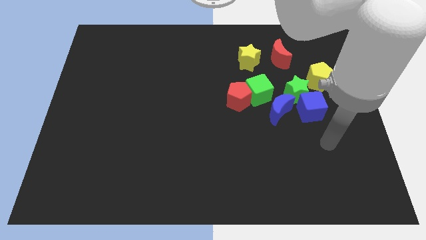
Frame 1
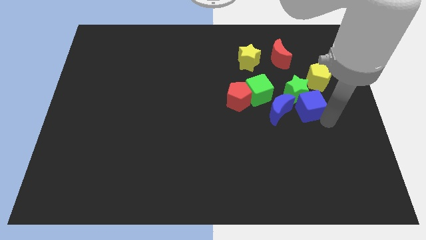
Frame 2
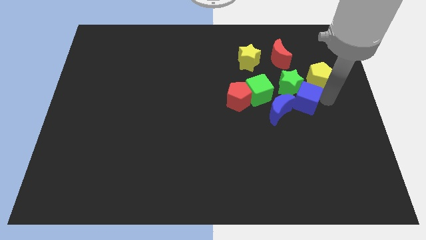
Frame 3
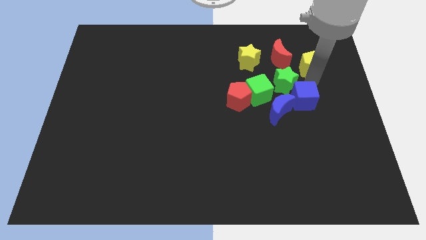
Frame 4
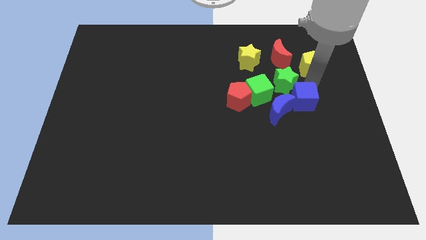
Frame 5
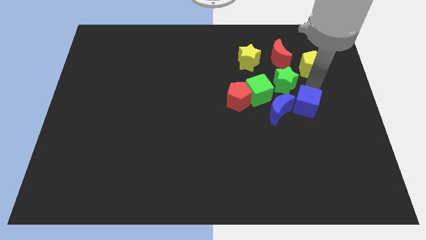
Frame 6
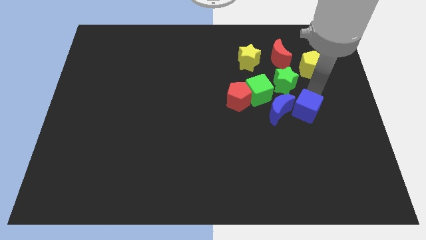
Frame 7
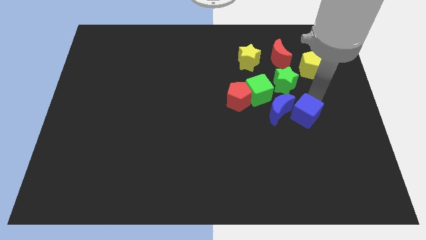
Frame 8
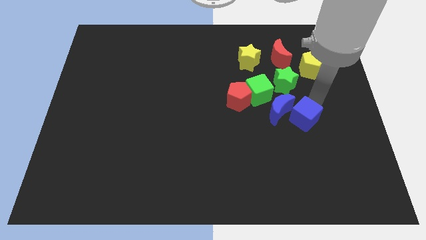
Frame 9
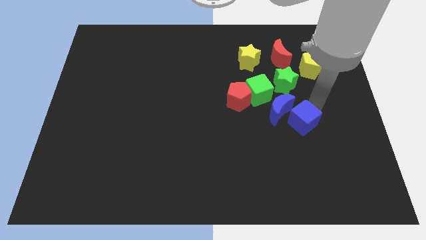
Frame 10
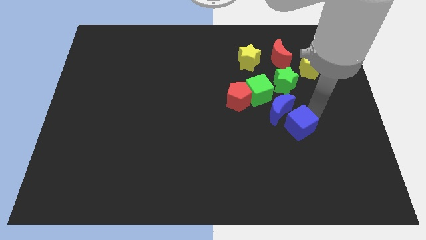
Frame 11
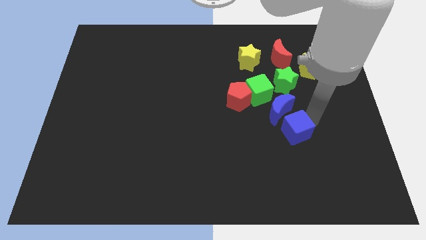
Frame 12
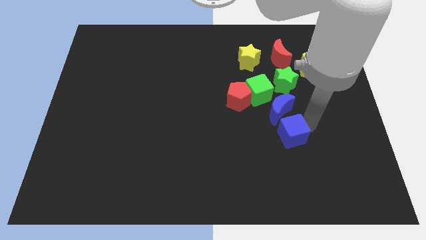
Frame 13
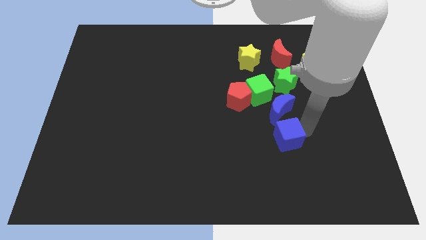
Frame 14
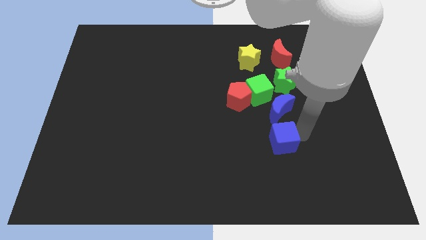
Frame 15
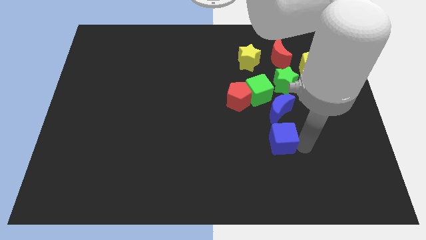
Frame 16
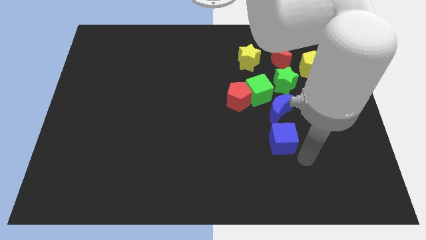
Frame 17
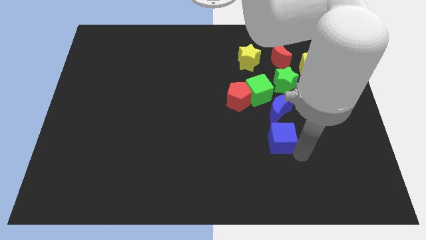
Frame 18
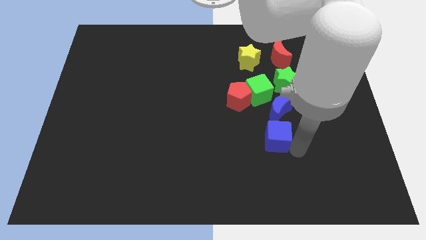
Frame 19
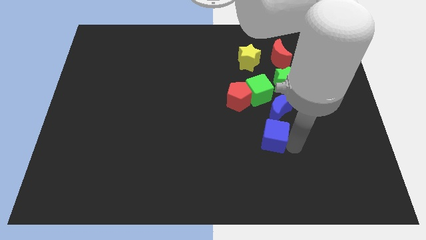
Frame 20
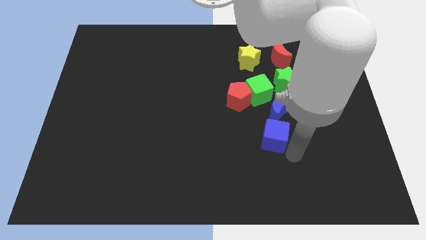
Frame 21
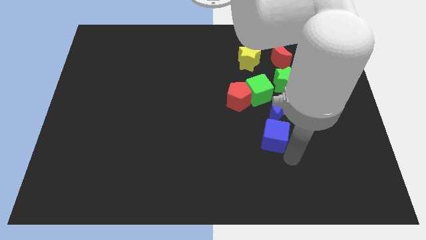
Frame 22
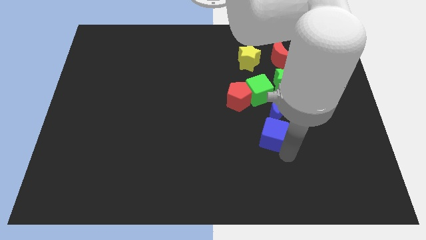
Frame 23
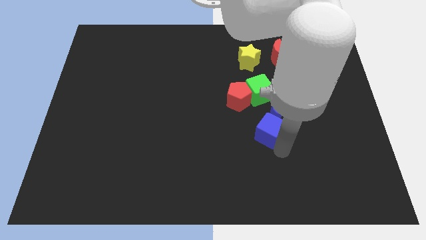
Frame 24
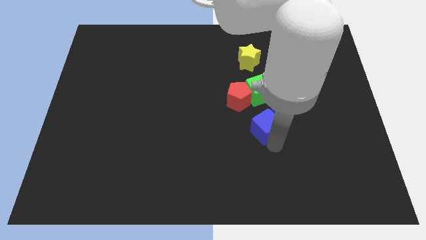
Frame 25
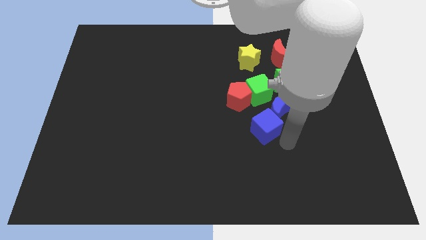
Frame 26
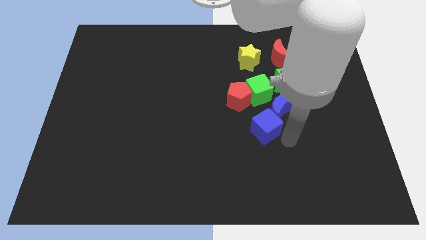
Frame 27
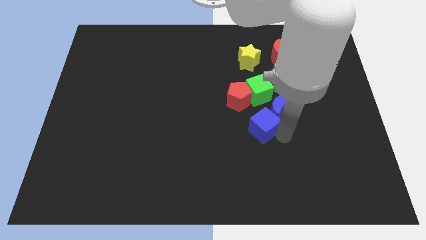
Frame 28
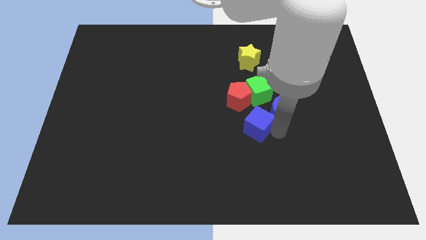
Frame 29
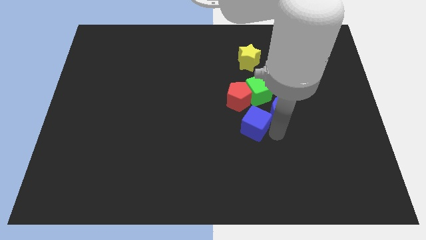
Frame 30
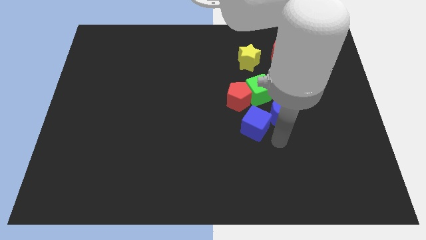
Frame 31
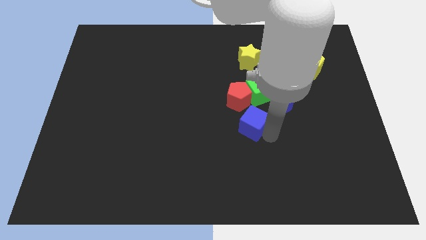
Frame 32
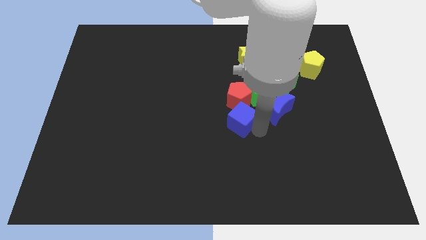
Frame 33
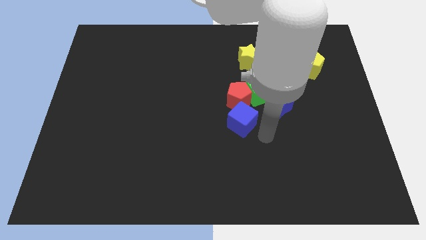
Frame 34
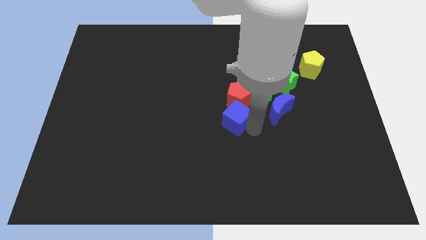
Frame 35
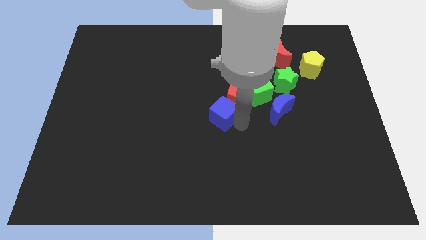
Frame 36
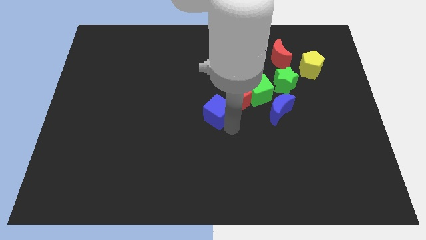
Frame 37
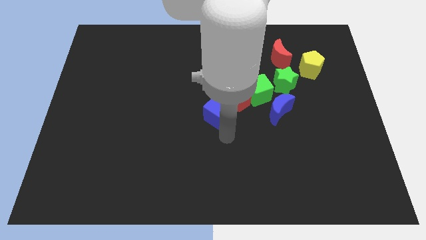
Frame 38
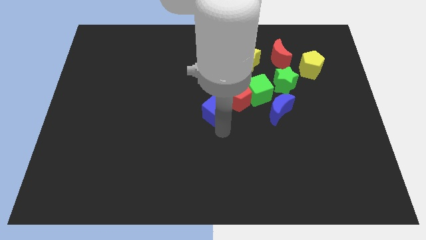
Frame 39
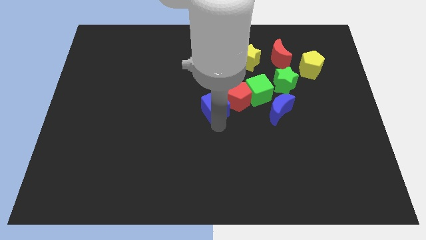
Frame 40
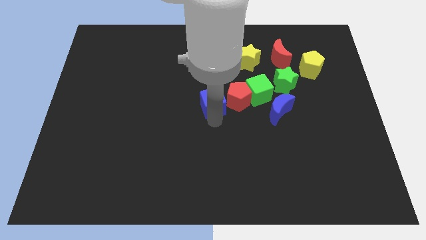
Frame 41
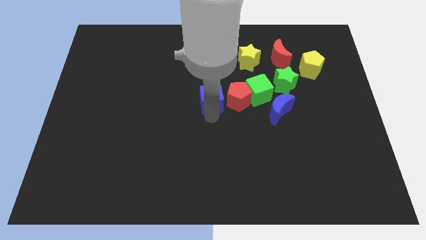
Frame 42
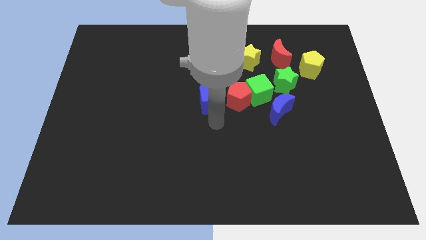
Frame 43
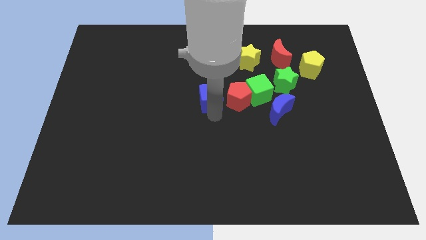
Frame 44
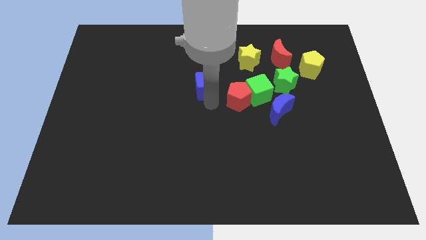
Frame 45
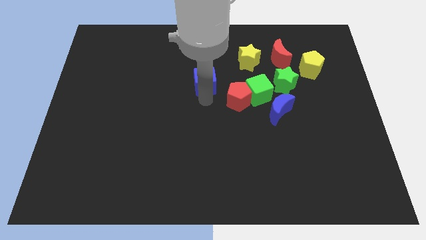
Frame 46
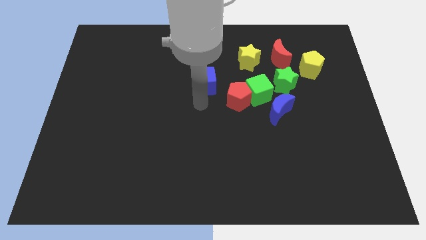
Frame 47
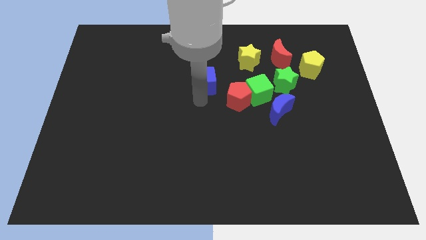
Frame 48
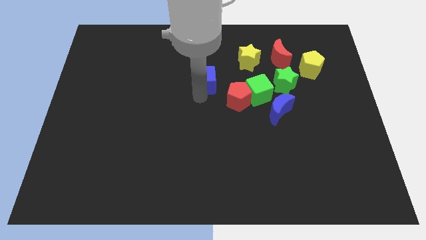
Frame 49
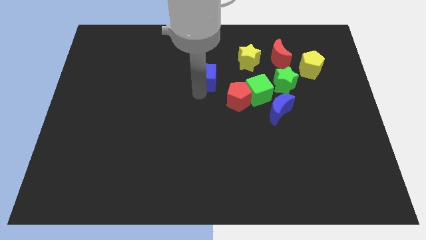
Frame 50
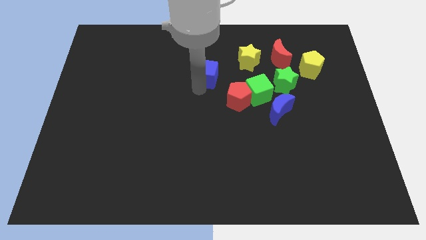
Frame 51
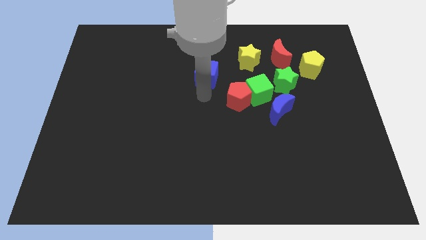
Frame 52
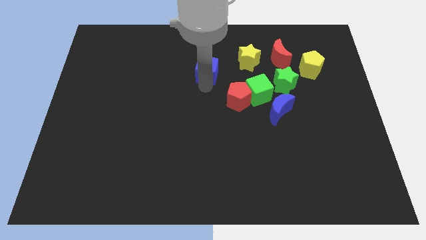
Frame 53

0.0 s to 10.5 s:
put the blue cube just left of the yellow star

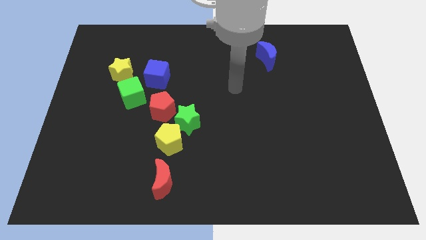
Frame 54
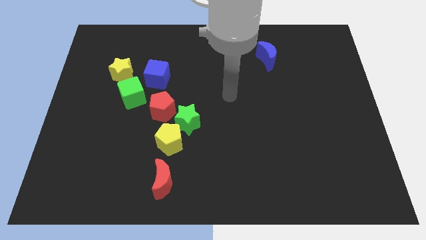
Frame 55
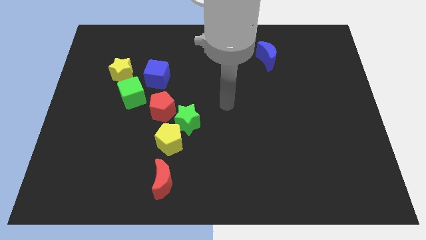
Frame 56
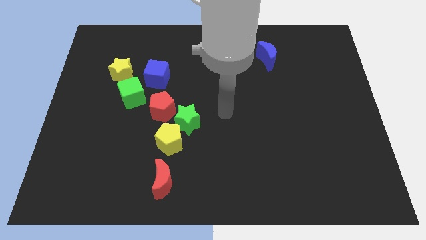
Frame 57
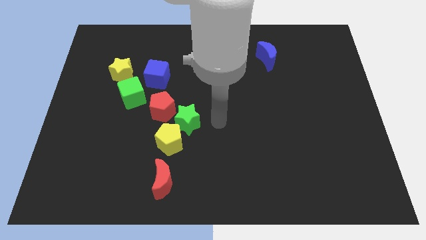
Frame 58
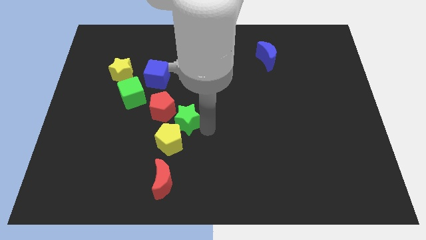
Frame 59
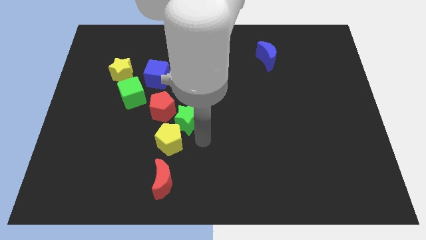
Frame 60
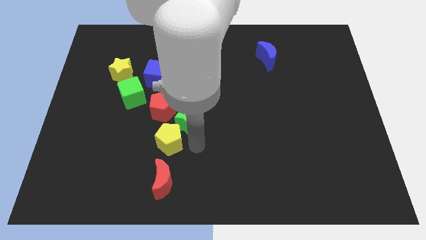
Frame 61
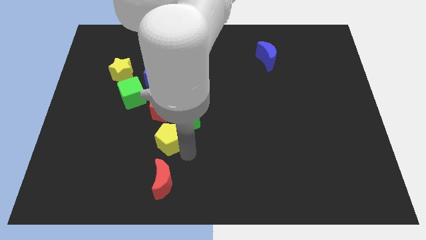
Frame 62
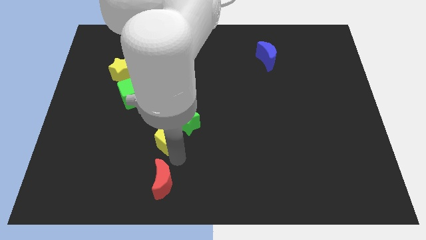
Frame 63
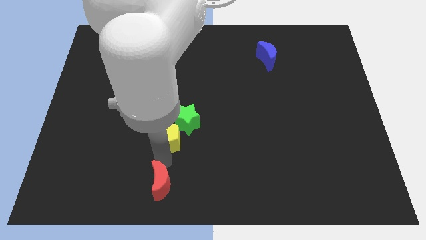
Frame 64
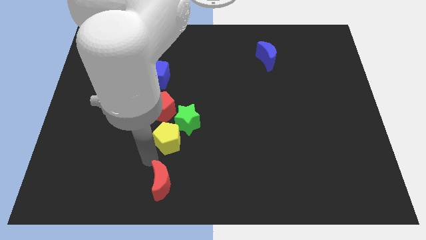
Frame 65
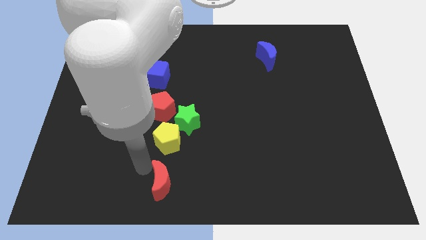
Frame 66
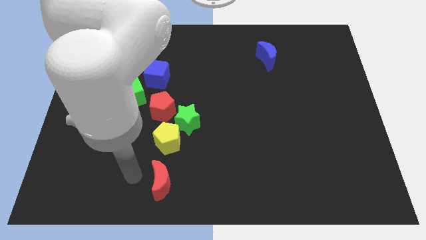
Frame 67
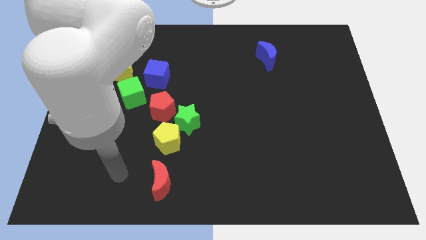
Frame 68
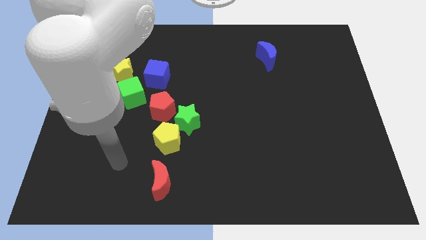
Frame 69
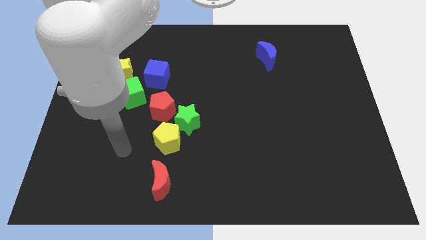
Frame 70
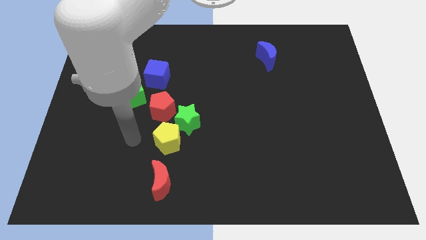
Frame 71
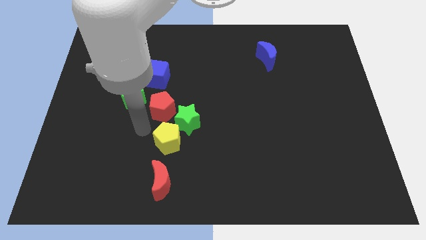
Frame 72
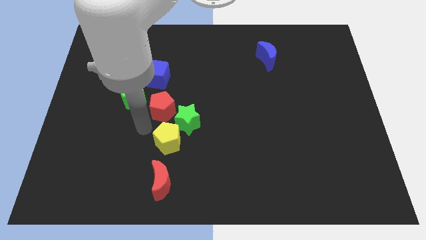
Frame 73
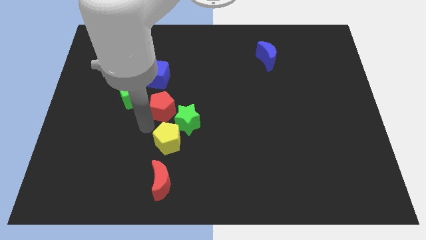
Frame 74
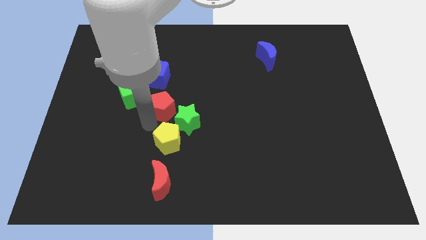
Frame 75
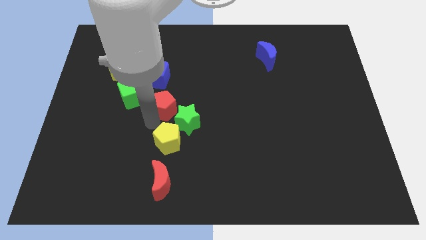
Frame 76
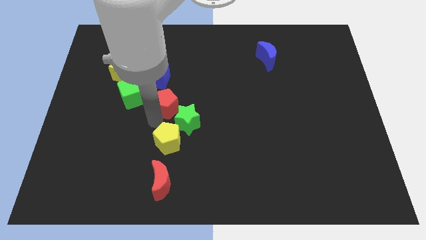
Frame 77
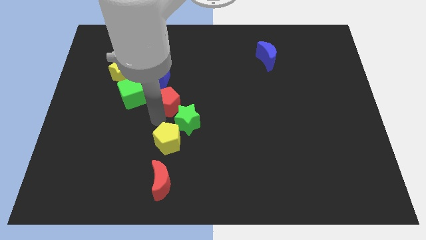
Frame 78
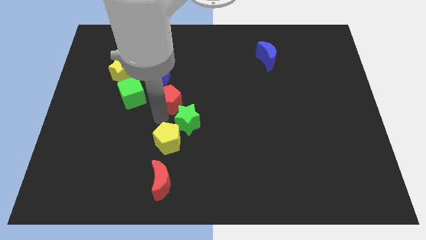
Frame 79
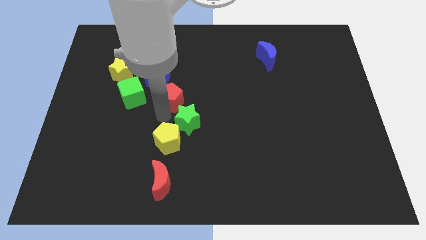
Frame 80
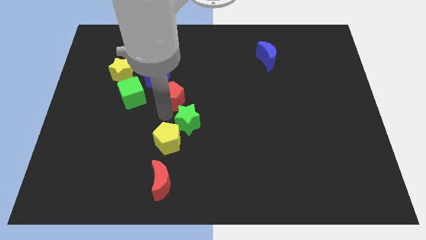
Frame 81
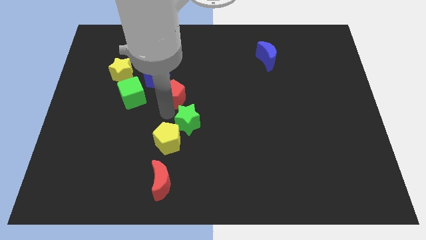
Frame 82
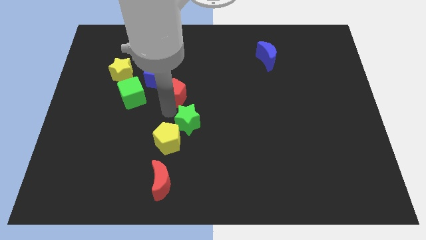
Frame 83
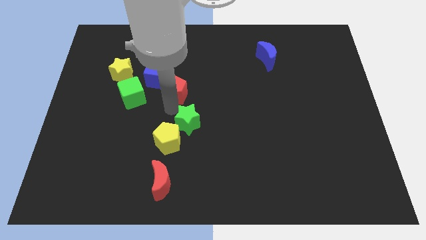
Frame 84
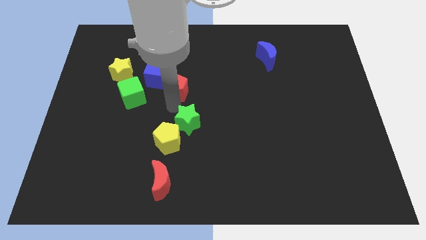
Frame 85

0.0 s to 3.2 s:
push the red pentagon just right of the blue cube
